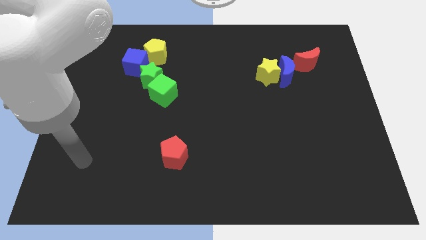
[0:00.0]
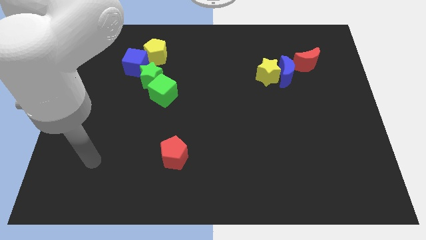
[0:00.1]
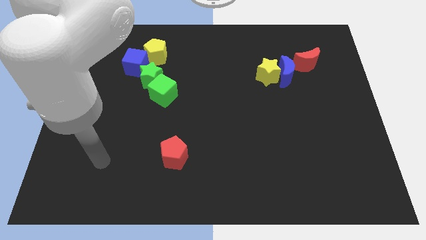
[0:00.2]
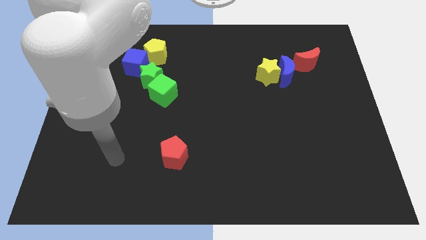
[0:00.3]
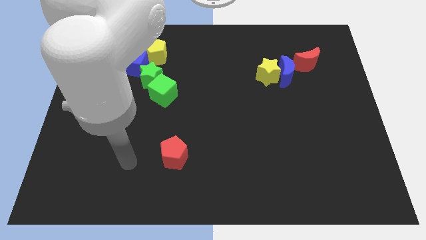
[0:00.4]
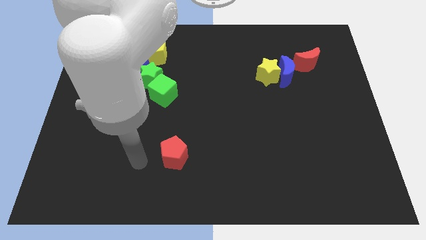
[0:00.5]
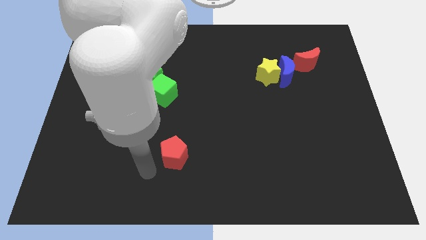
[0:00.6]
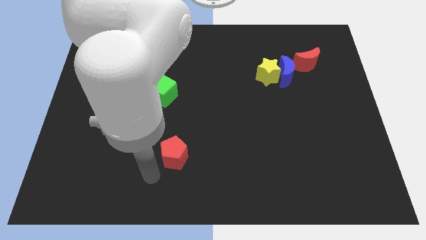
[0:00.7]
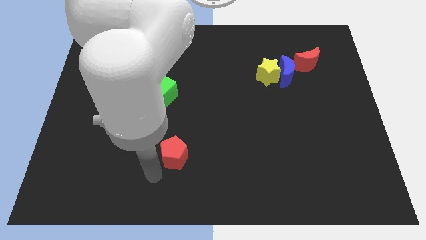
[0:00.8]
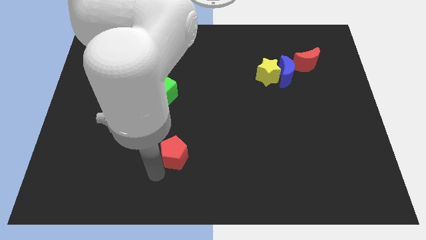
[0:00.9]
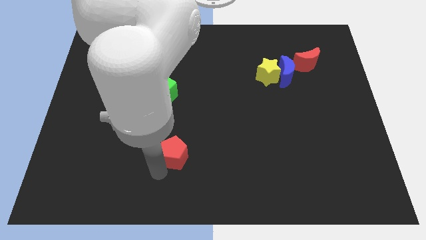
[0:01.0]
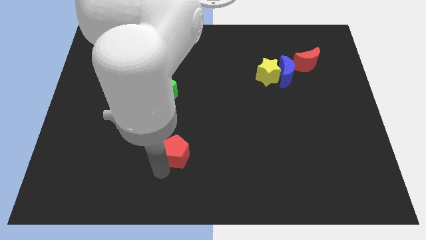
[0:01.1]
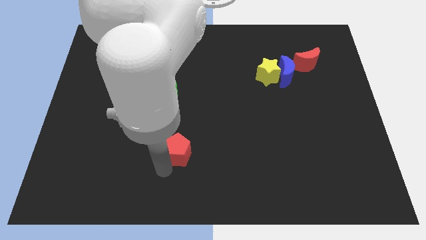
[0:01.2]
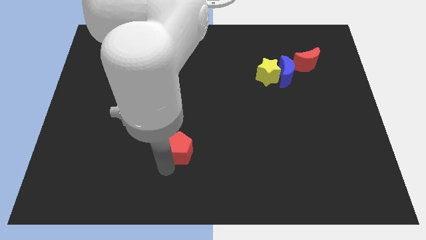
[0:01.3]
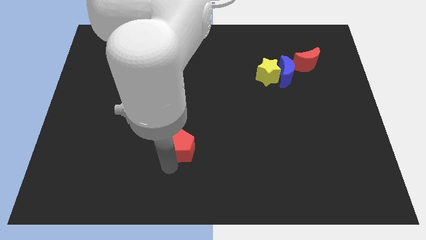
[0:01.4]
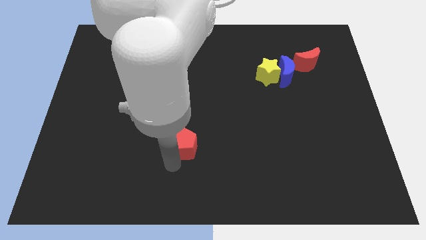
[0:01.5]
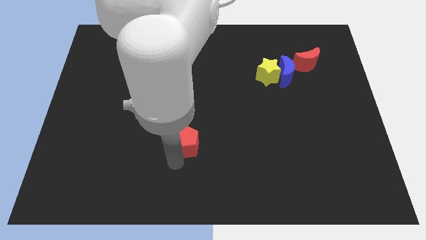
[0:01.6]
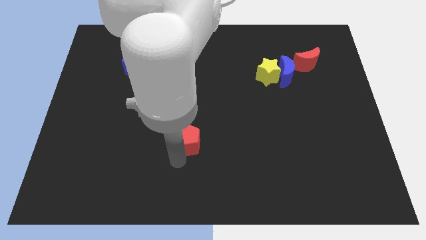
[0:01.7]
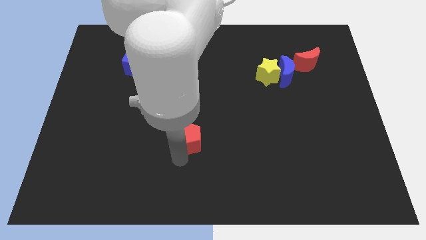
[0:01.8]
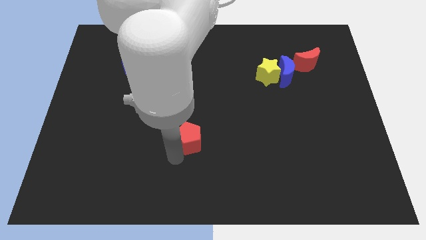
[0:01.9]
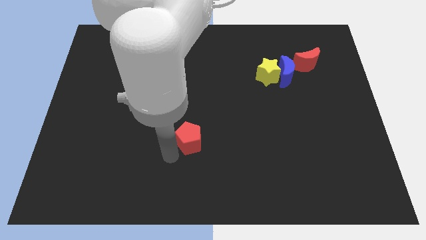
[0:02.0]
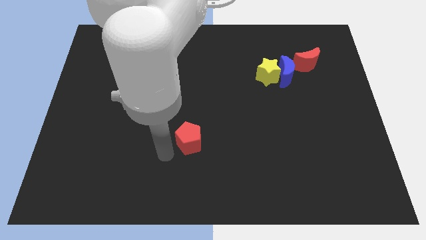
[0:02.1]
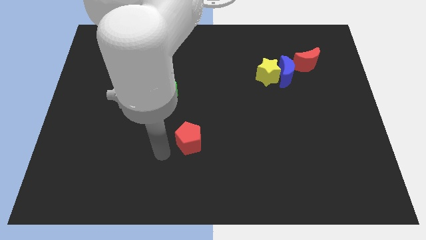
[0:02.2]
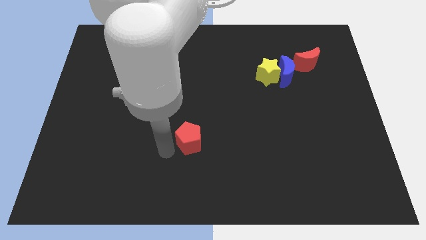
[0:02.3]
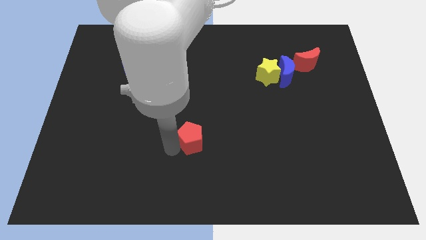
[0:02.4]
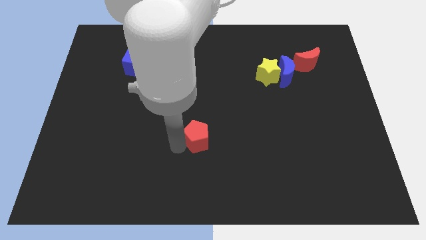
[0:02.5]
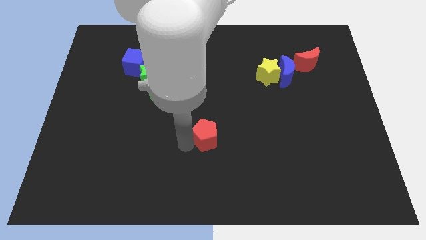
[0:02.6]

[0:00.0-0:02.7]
slide the red pentagon a little bit upwards and right diagonally

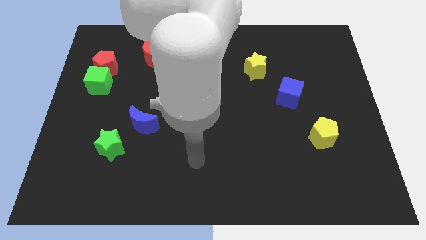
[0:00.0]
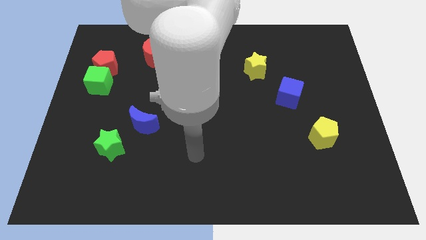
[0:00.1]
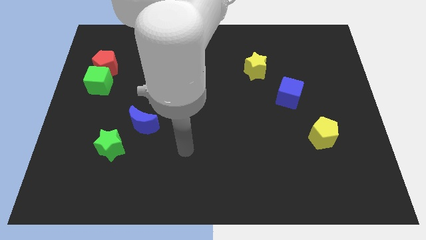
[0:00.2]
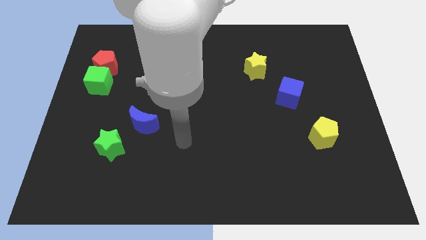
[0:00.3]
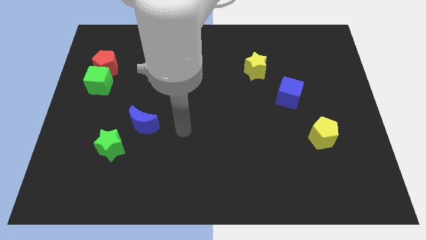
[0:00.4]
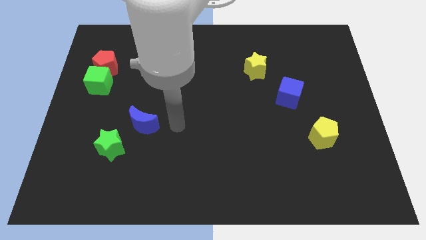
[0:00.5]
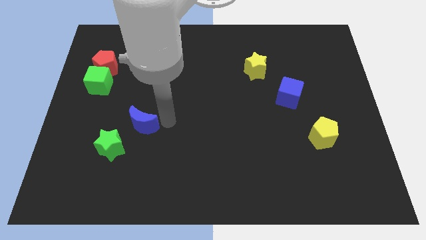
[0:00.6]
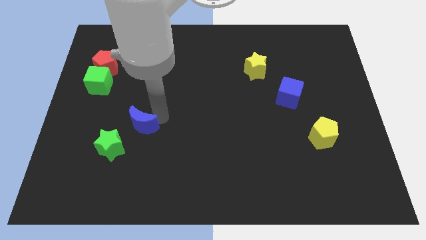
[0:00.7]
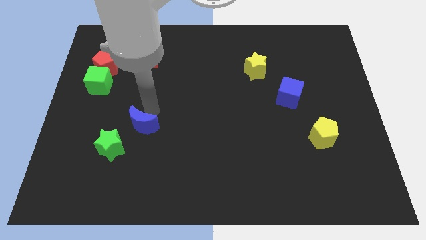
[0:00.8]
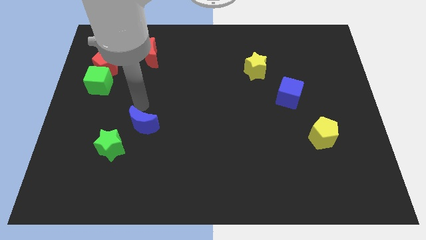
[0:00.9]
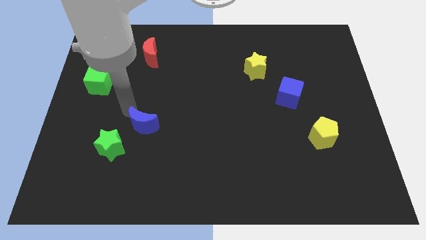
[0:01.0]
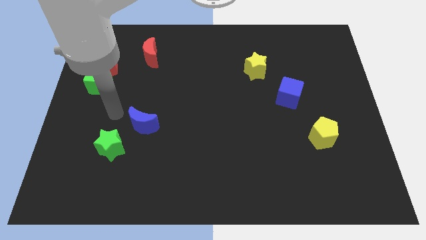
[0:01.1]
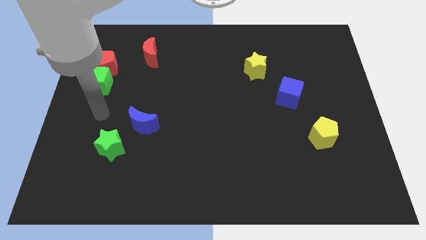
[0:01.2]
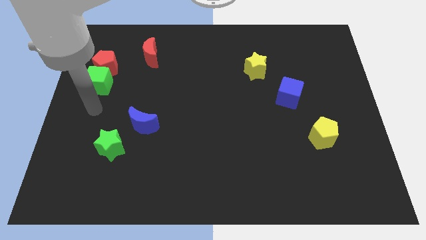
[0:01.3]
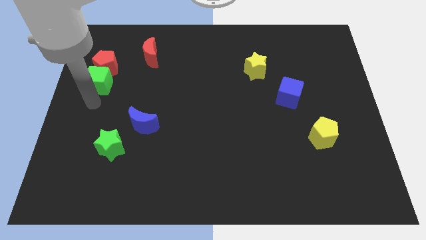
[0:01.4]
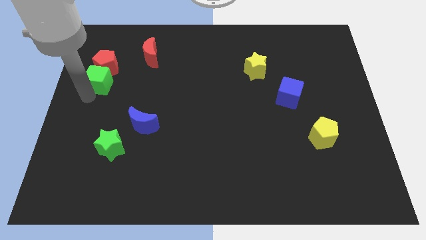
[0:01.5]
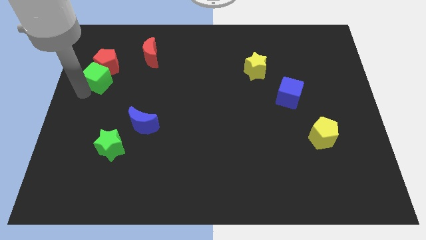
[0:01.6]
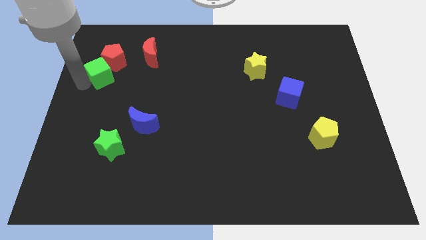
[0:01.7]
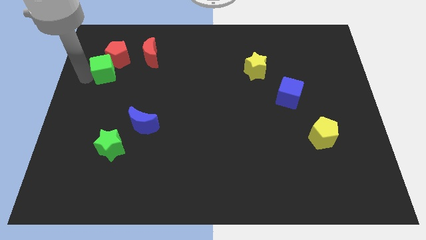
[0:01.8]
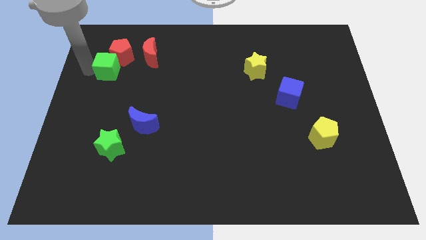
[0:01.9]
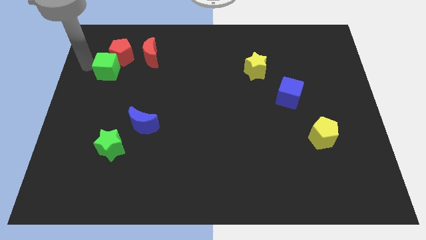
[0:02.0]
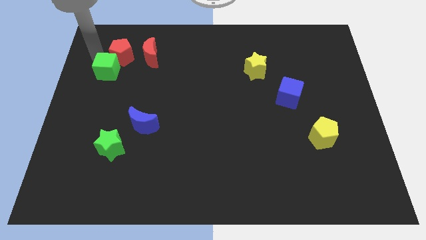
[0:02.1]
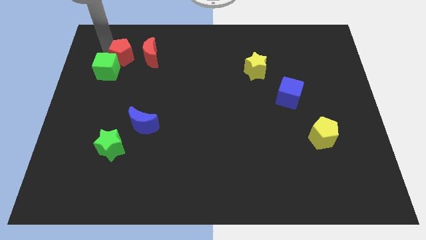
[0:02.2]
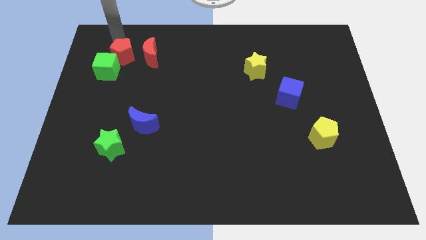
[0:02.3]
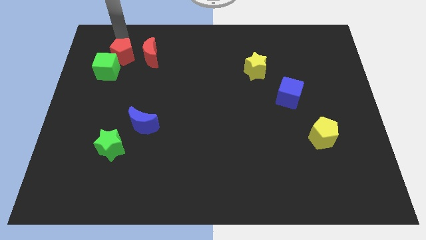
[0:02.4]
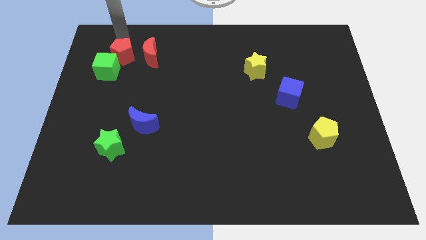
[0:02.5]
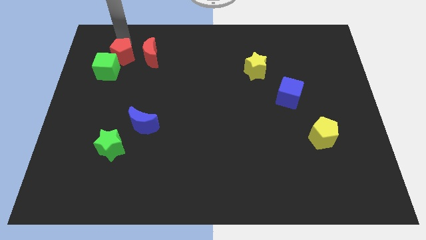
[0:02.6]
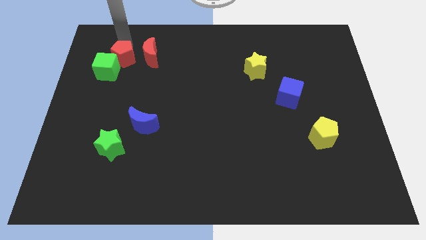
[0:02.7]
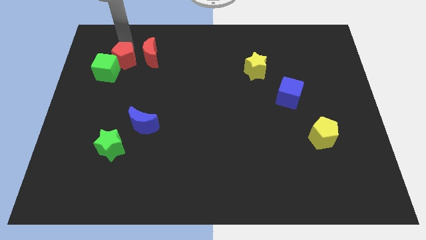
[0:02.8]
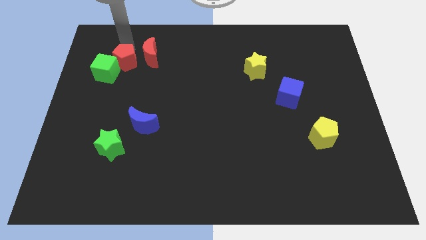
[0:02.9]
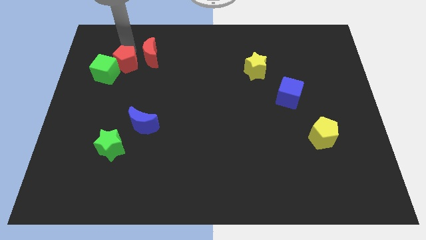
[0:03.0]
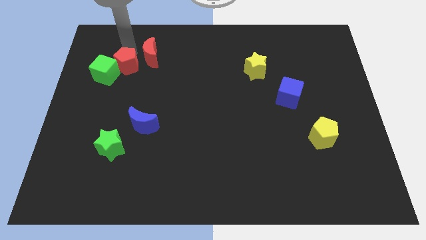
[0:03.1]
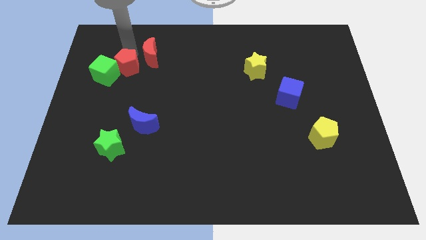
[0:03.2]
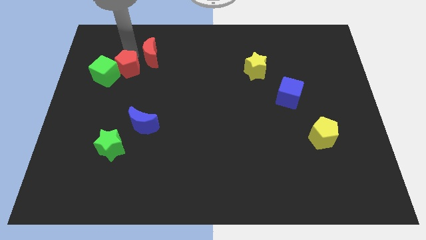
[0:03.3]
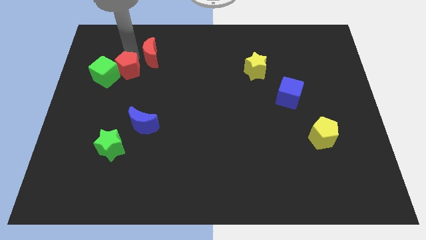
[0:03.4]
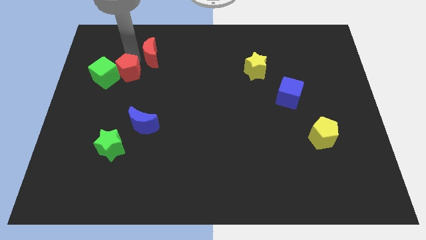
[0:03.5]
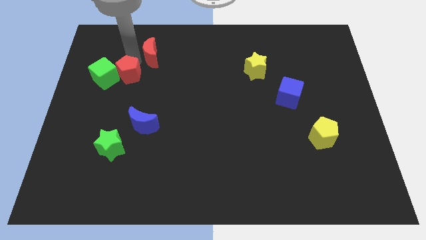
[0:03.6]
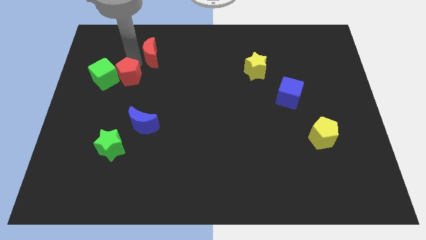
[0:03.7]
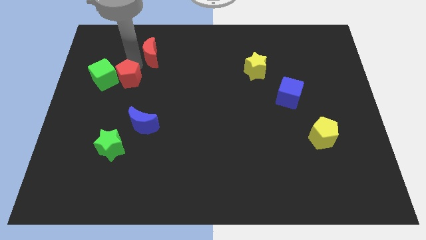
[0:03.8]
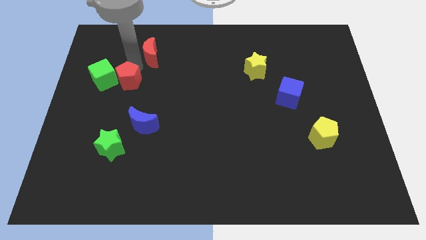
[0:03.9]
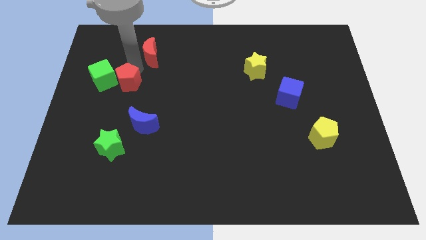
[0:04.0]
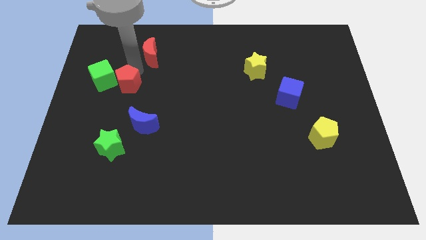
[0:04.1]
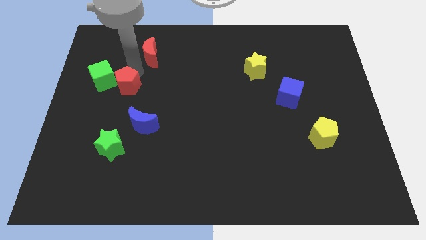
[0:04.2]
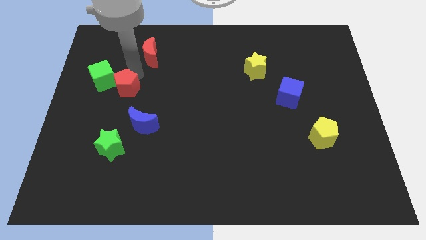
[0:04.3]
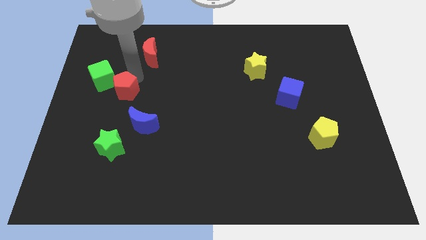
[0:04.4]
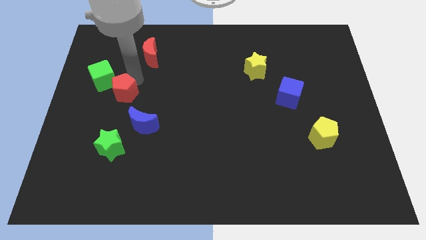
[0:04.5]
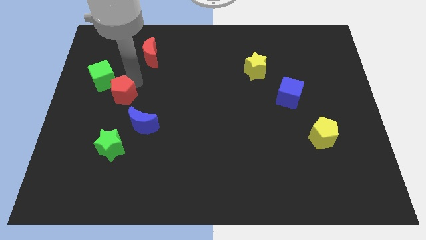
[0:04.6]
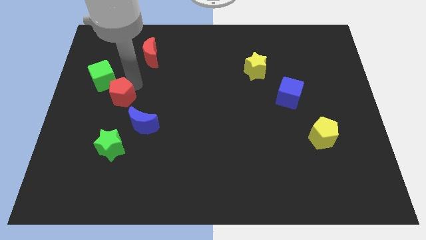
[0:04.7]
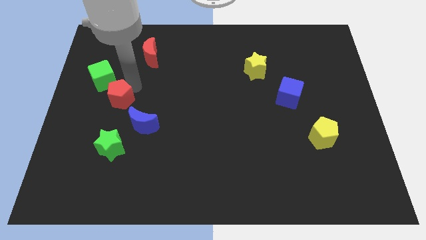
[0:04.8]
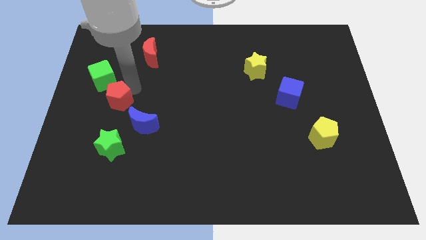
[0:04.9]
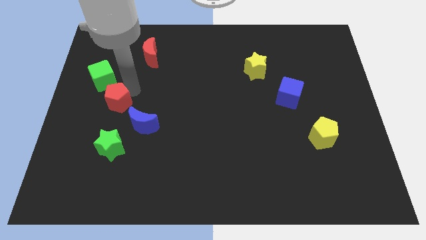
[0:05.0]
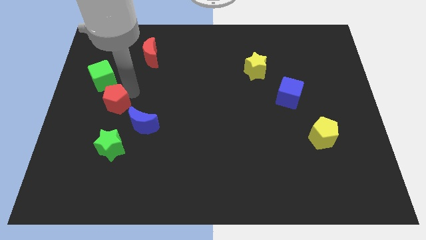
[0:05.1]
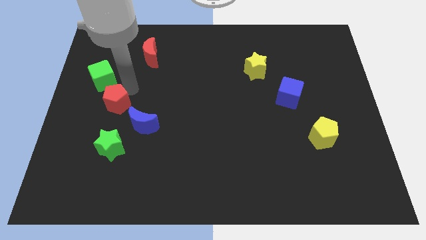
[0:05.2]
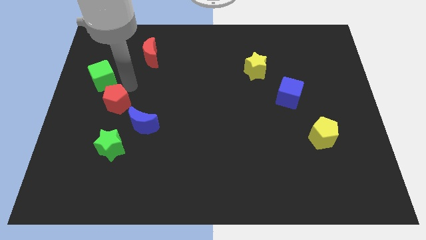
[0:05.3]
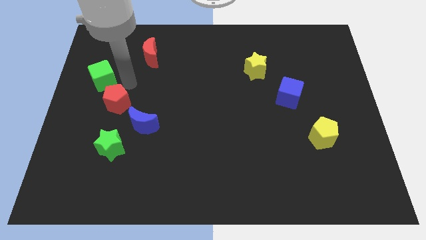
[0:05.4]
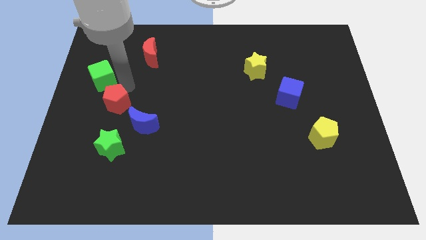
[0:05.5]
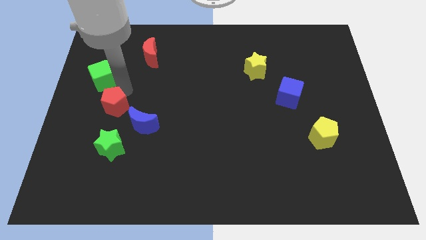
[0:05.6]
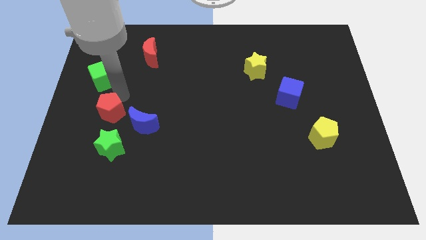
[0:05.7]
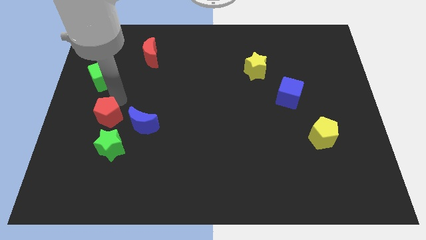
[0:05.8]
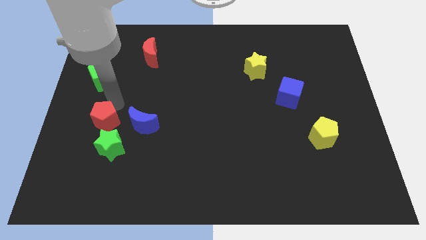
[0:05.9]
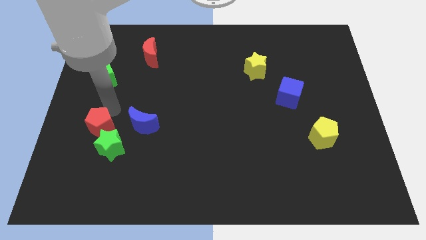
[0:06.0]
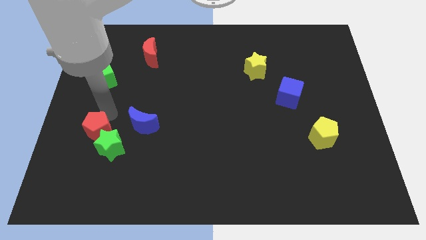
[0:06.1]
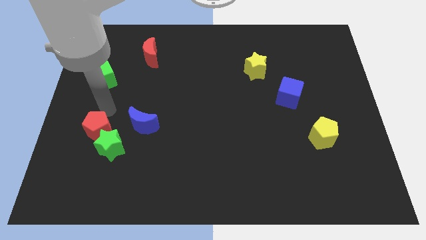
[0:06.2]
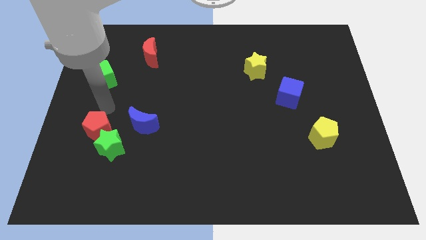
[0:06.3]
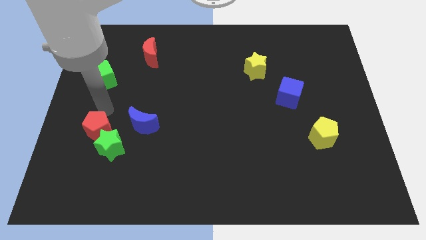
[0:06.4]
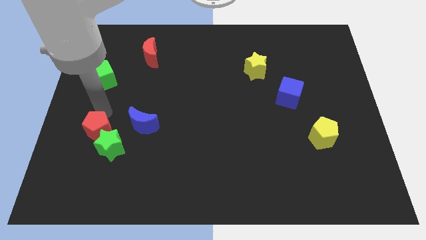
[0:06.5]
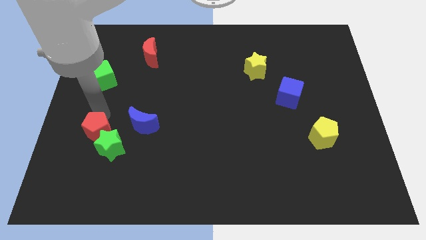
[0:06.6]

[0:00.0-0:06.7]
move the red pentagon downwards
